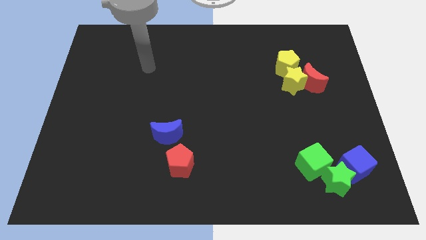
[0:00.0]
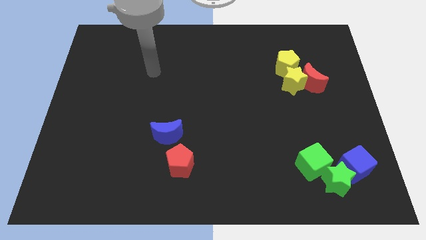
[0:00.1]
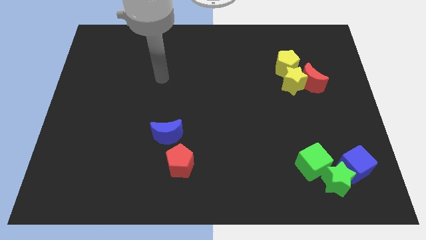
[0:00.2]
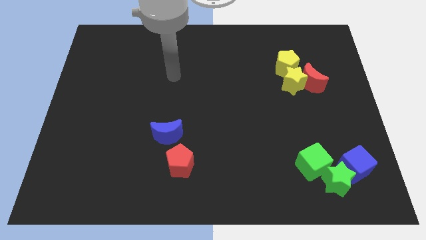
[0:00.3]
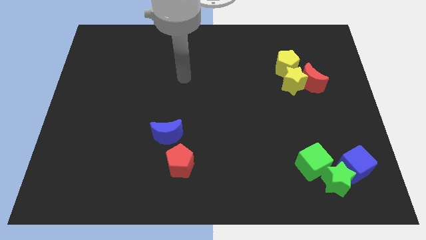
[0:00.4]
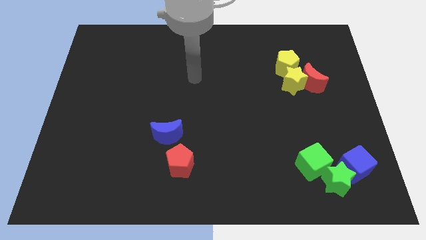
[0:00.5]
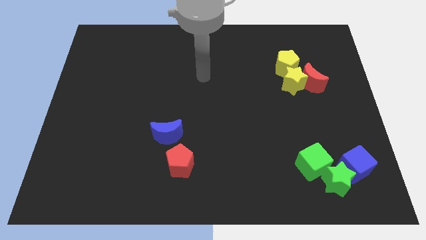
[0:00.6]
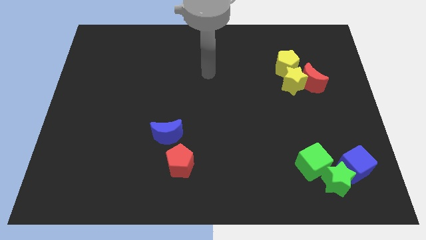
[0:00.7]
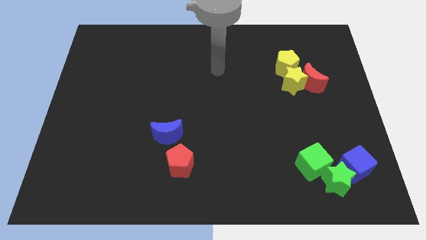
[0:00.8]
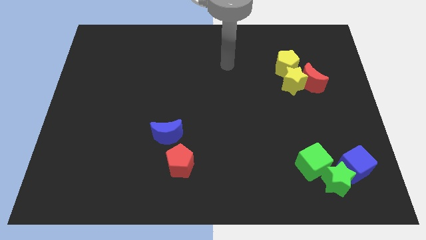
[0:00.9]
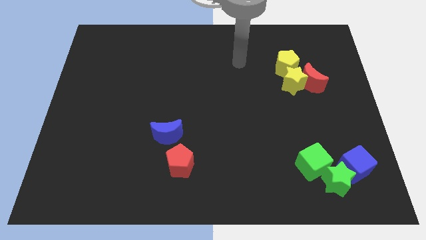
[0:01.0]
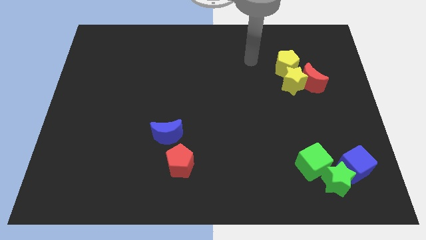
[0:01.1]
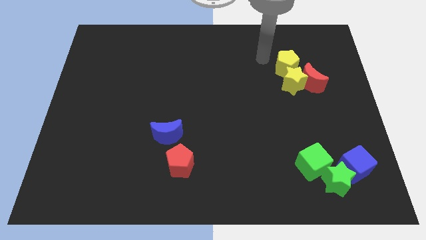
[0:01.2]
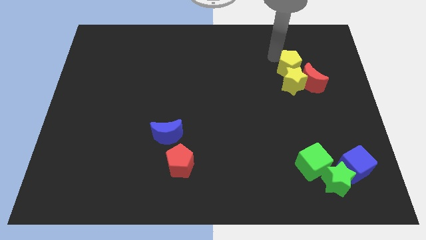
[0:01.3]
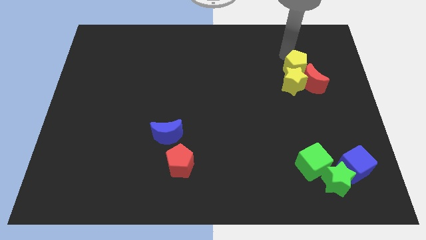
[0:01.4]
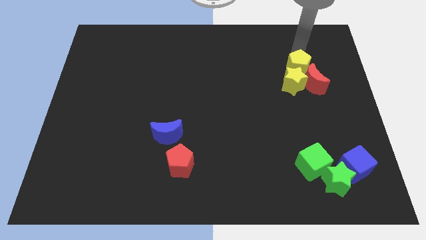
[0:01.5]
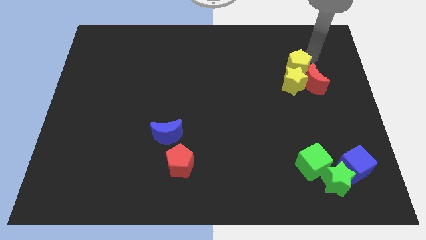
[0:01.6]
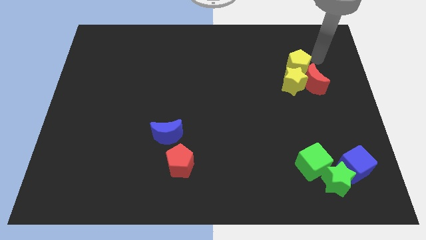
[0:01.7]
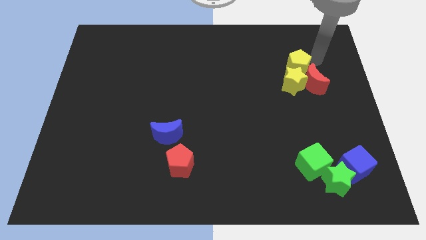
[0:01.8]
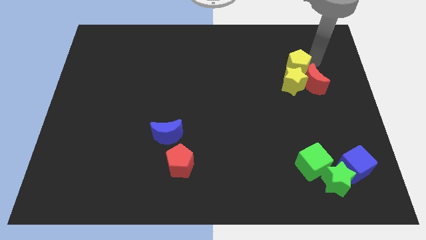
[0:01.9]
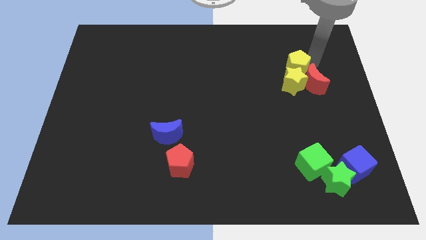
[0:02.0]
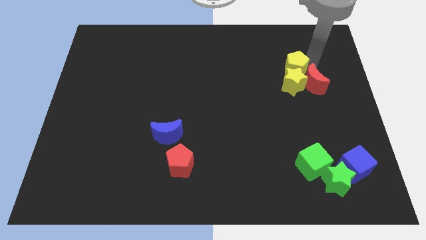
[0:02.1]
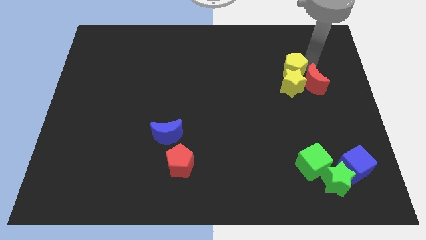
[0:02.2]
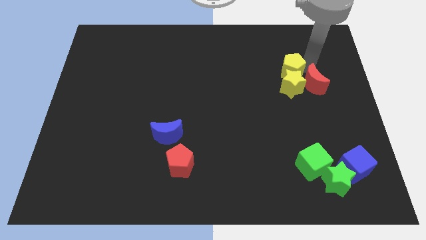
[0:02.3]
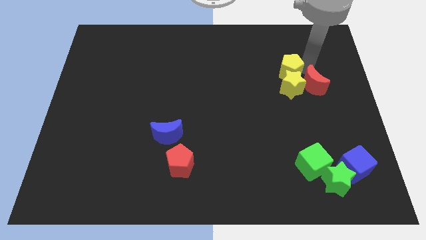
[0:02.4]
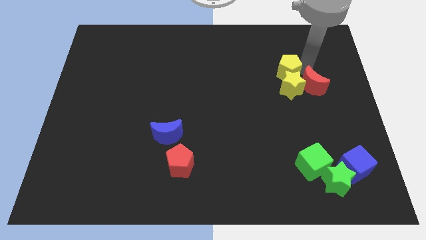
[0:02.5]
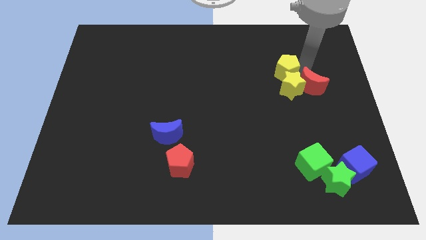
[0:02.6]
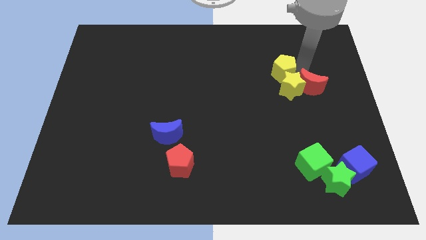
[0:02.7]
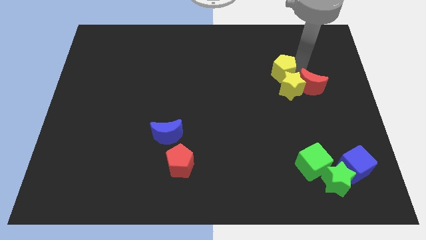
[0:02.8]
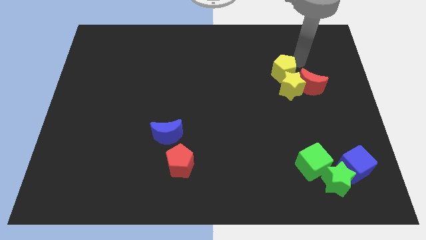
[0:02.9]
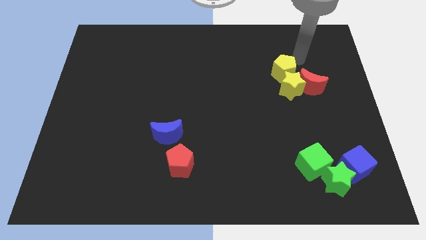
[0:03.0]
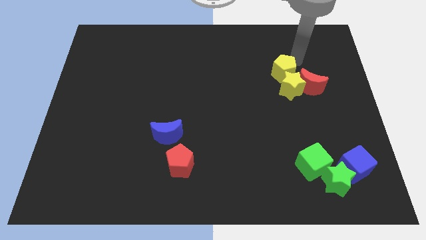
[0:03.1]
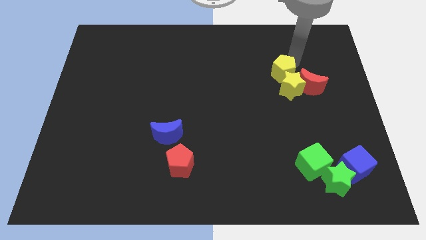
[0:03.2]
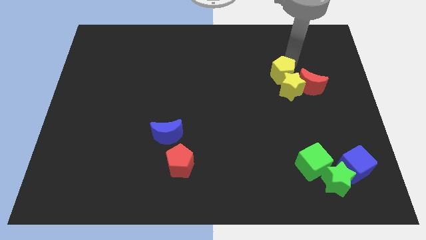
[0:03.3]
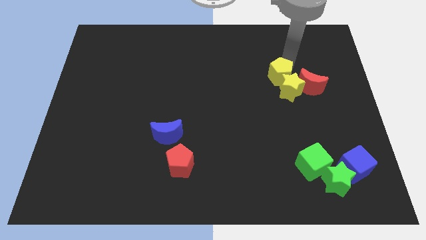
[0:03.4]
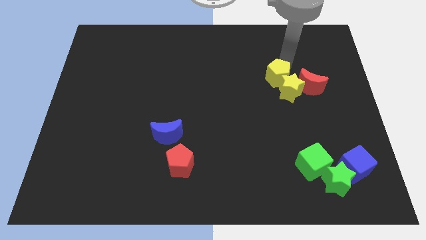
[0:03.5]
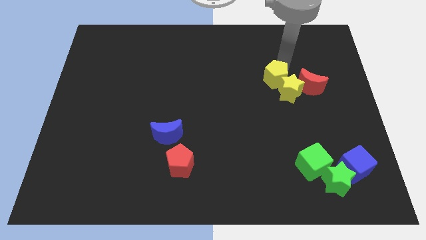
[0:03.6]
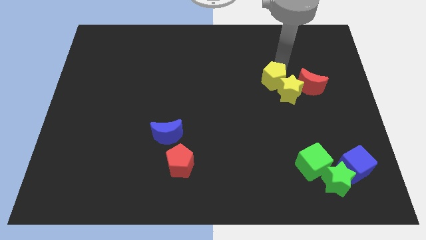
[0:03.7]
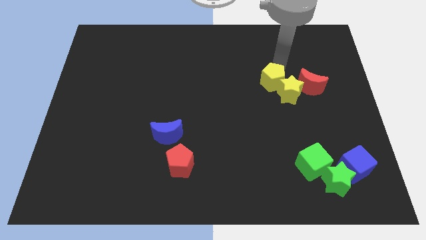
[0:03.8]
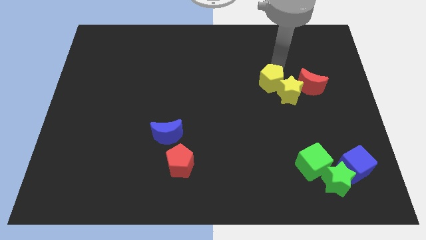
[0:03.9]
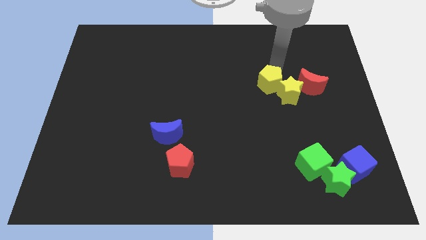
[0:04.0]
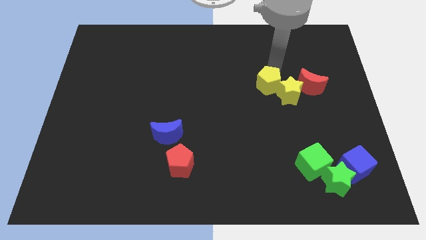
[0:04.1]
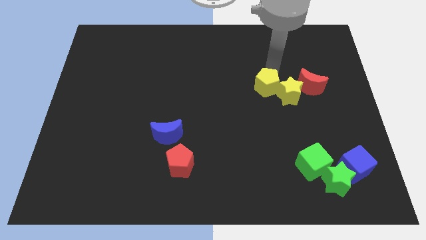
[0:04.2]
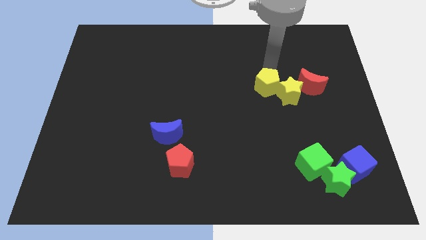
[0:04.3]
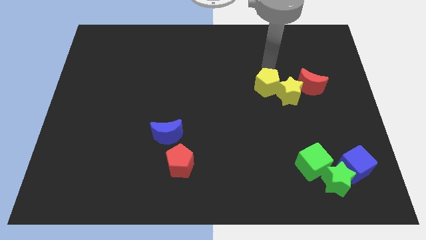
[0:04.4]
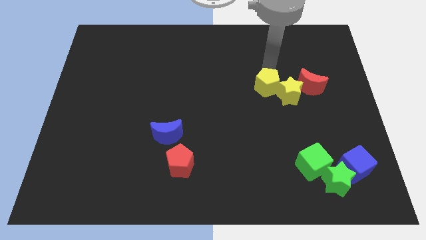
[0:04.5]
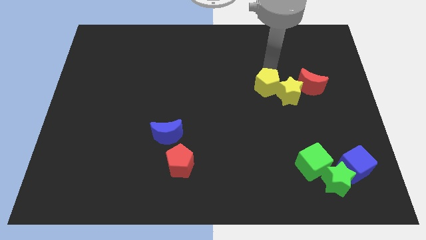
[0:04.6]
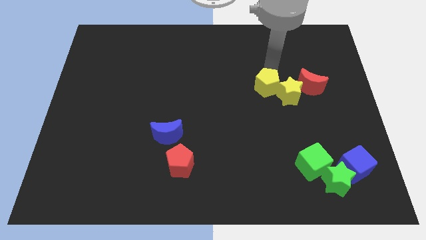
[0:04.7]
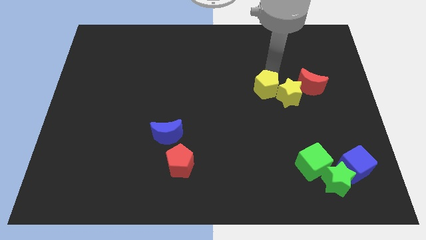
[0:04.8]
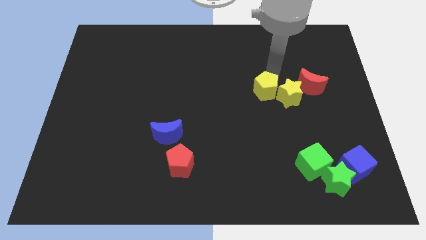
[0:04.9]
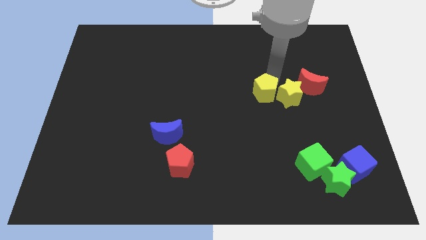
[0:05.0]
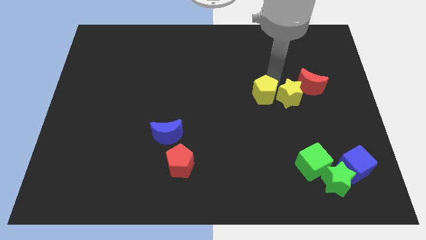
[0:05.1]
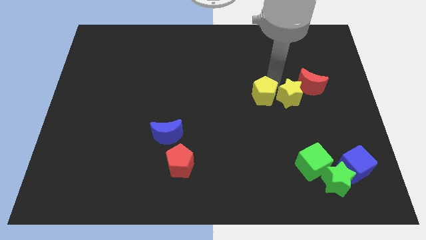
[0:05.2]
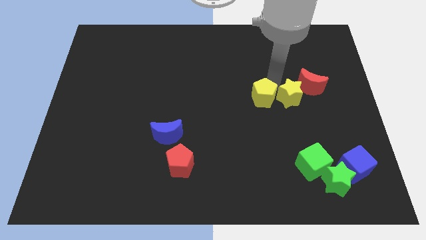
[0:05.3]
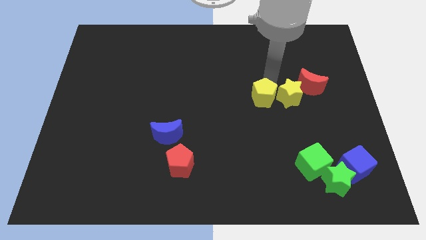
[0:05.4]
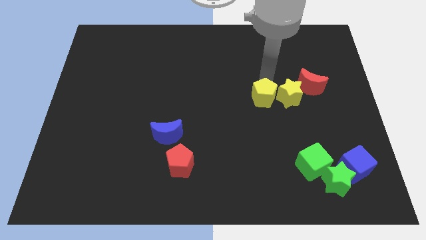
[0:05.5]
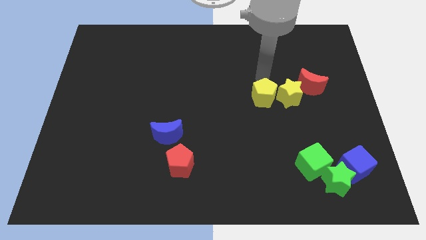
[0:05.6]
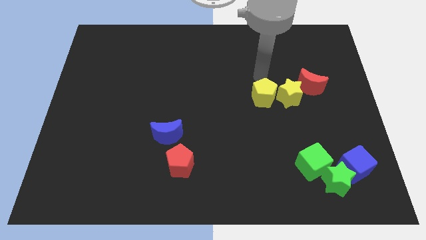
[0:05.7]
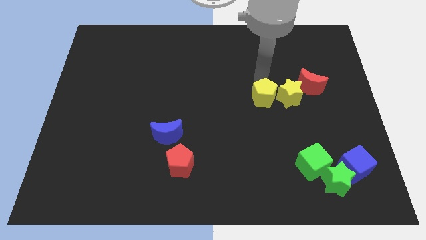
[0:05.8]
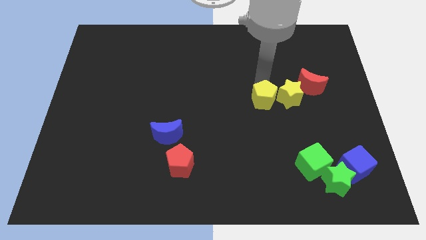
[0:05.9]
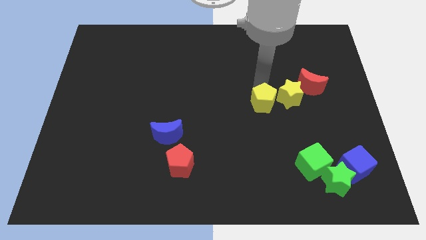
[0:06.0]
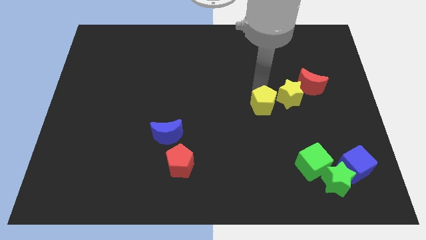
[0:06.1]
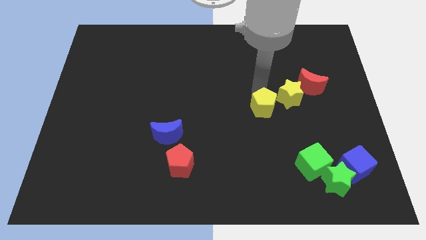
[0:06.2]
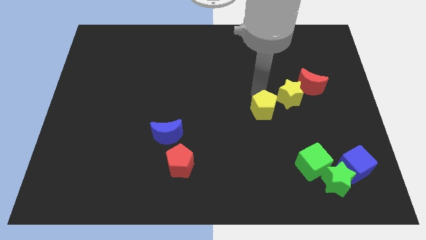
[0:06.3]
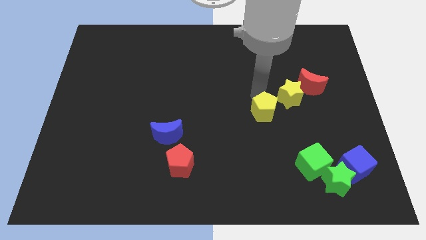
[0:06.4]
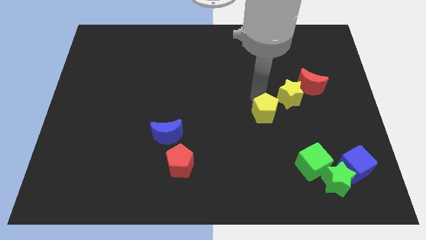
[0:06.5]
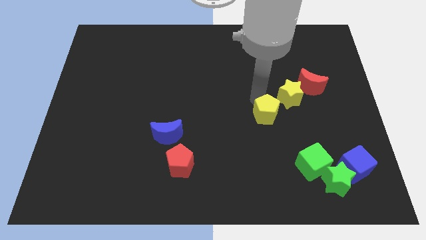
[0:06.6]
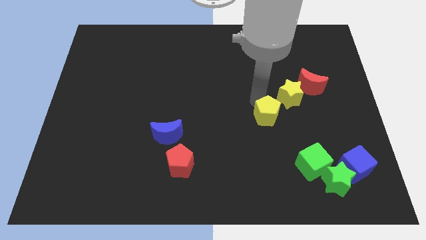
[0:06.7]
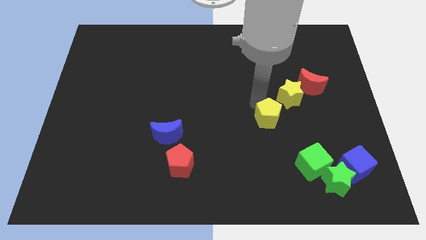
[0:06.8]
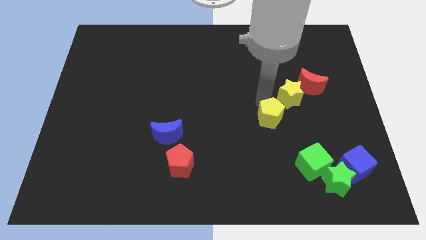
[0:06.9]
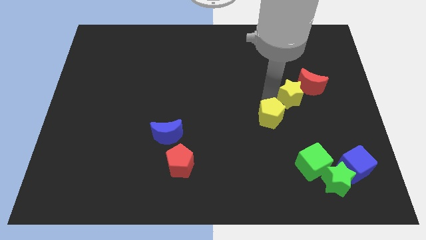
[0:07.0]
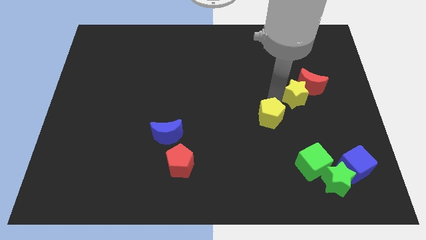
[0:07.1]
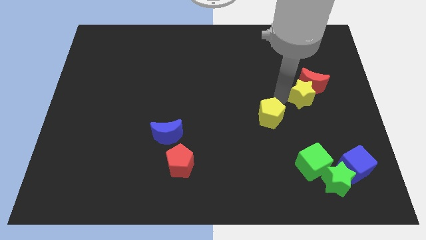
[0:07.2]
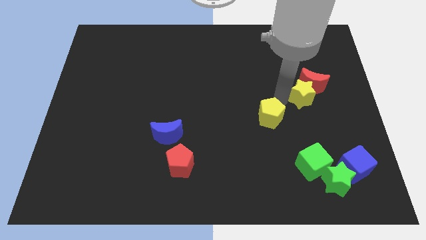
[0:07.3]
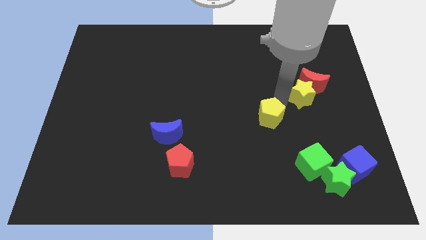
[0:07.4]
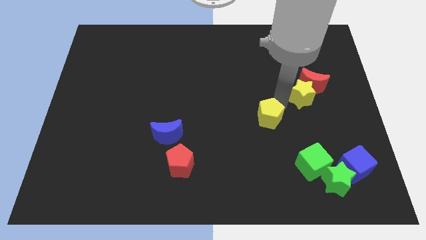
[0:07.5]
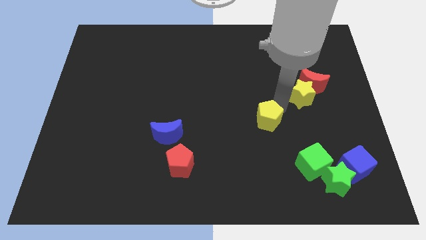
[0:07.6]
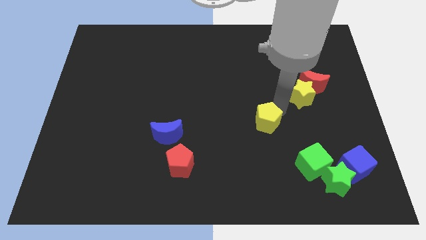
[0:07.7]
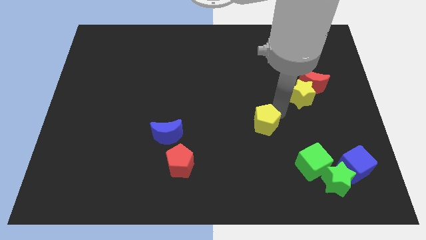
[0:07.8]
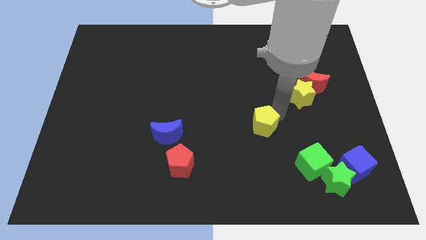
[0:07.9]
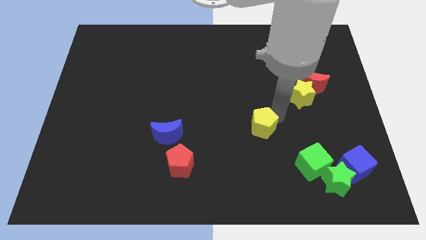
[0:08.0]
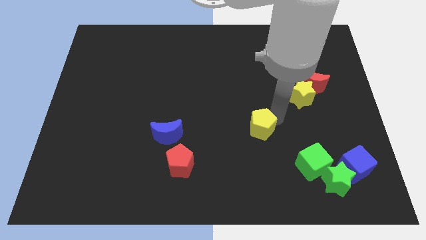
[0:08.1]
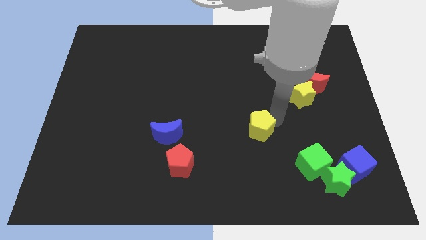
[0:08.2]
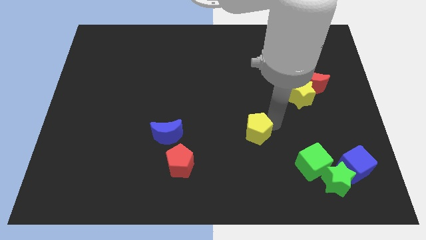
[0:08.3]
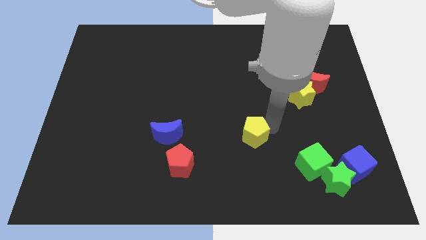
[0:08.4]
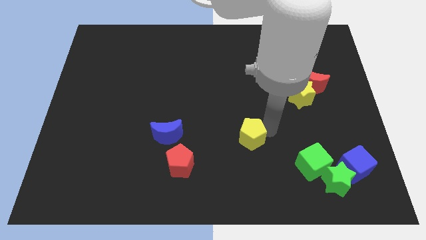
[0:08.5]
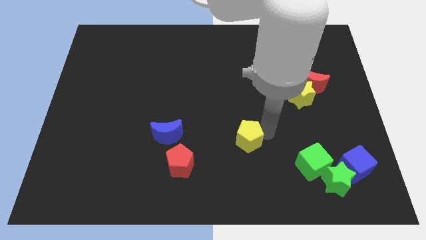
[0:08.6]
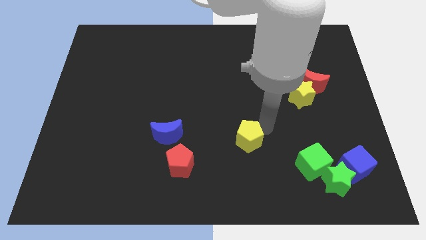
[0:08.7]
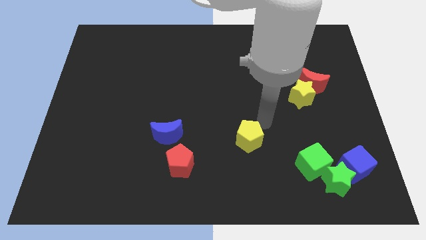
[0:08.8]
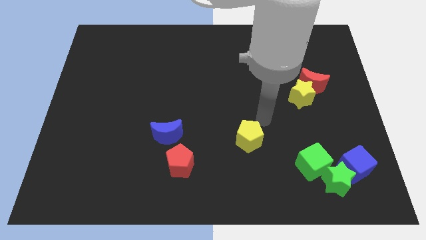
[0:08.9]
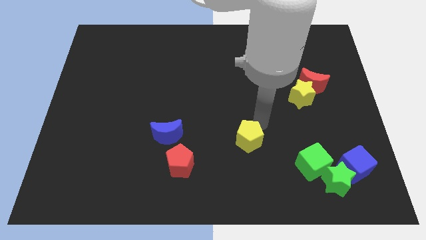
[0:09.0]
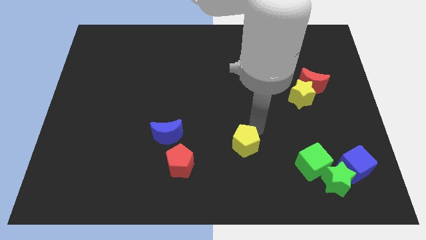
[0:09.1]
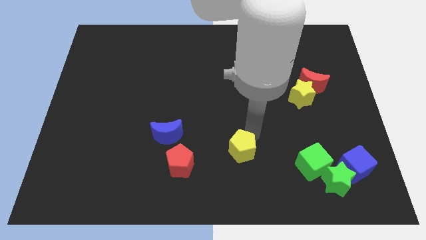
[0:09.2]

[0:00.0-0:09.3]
move the yellow pentagon right of the red pentagon
